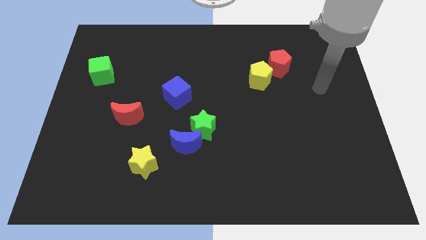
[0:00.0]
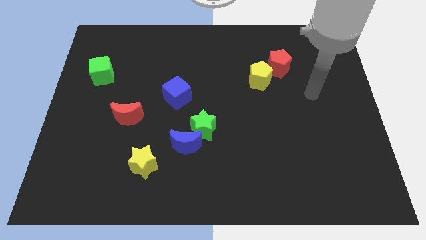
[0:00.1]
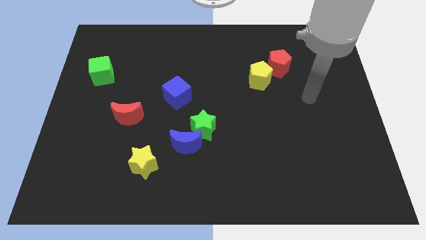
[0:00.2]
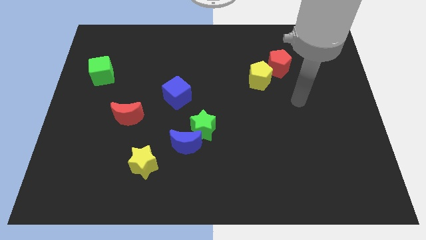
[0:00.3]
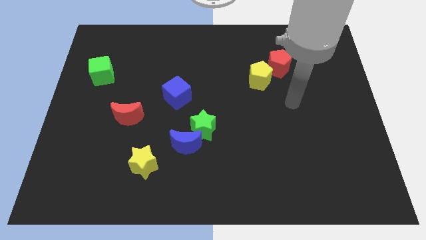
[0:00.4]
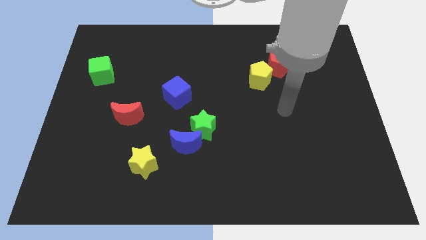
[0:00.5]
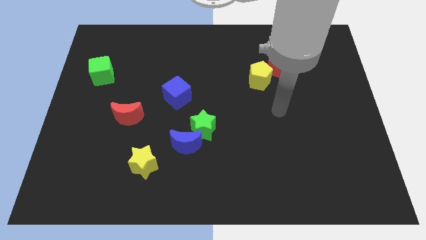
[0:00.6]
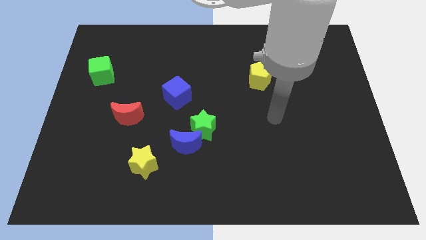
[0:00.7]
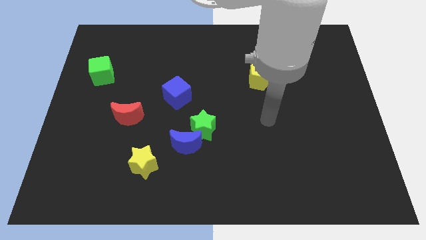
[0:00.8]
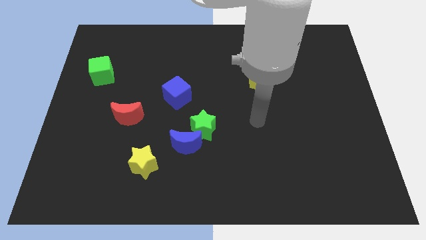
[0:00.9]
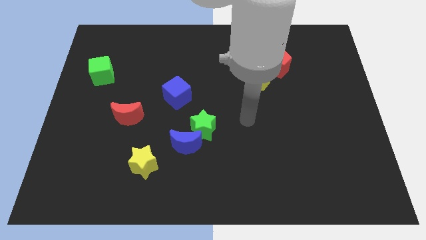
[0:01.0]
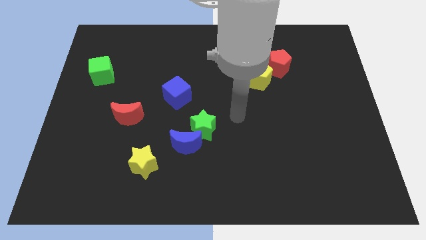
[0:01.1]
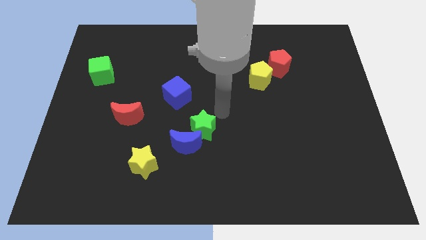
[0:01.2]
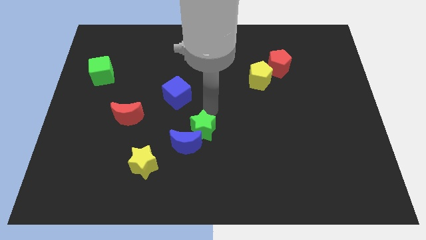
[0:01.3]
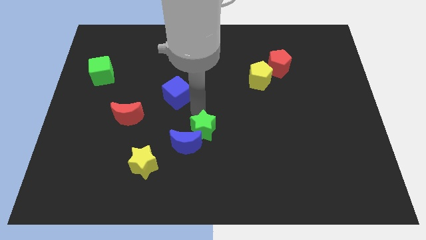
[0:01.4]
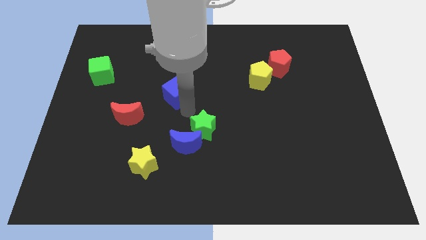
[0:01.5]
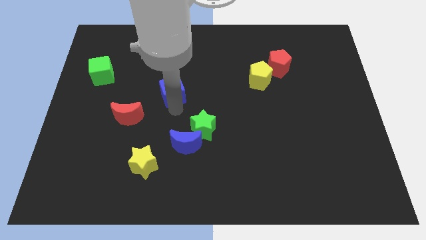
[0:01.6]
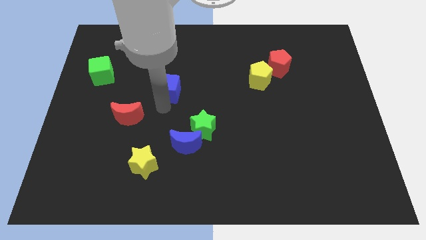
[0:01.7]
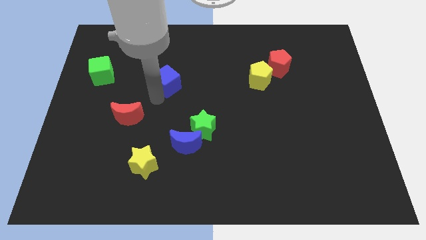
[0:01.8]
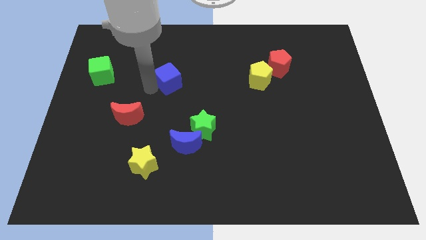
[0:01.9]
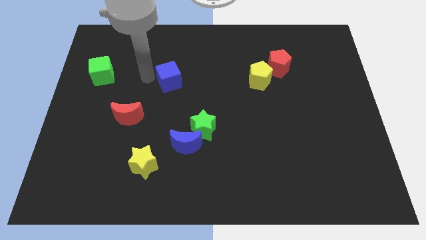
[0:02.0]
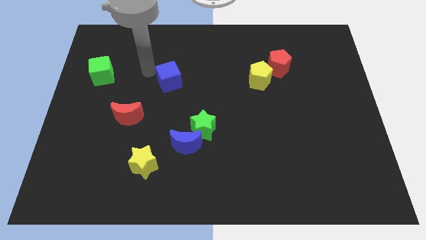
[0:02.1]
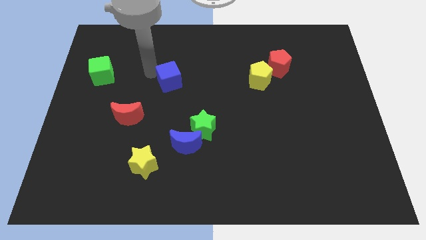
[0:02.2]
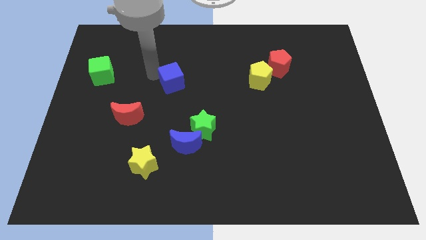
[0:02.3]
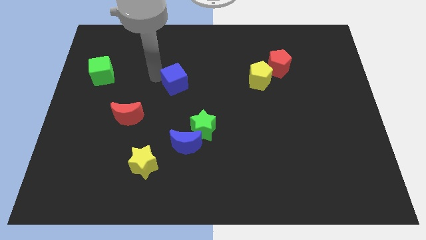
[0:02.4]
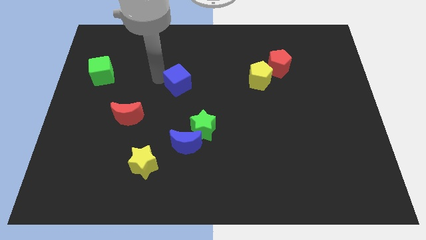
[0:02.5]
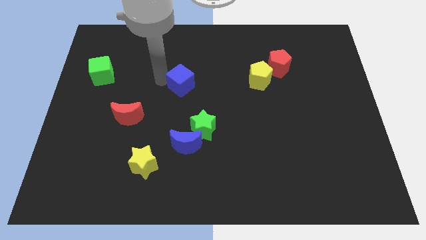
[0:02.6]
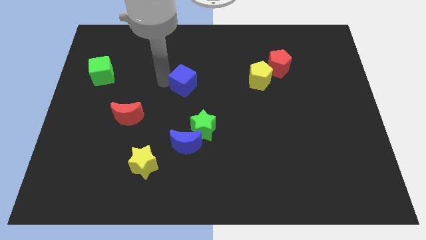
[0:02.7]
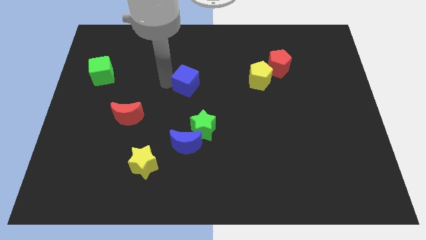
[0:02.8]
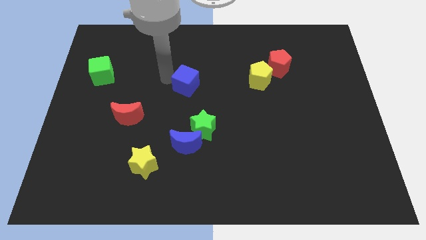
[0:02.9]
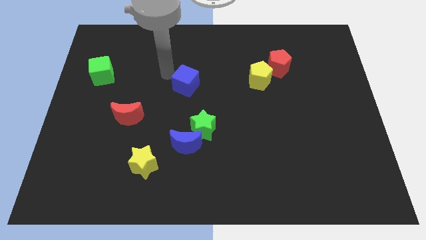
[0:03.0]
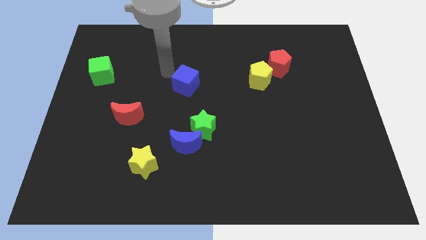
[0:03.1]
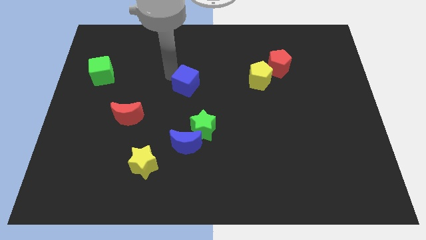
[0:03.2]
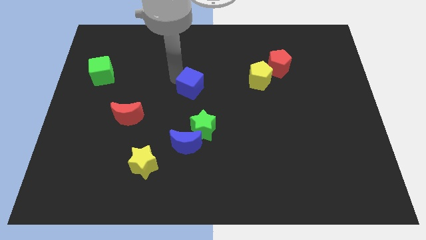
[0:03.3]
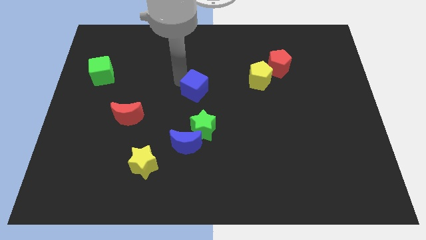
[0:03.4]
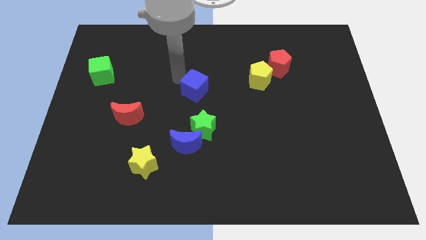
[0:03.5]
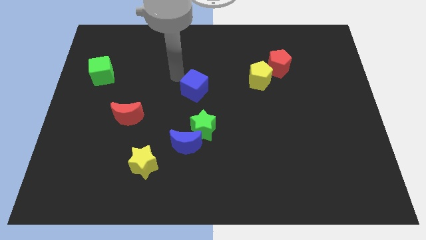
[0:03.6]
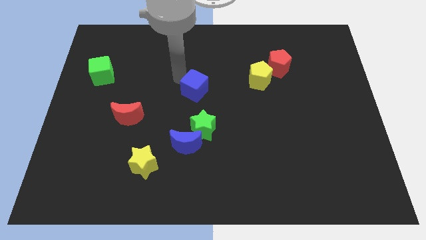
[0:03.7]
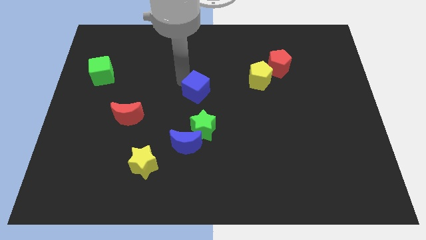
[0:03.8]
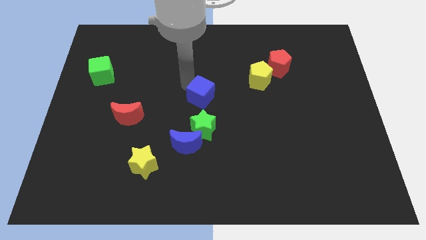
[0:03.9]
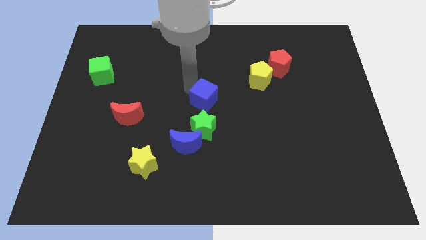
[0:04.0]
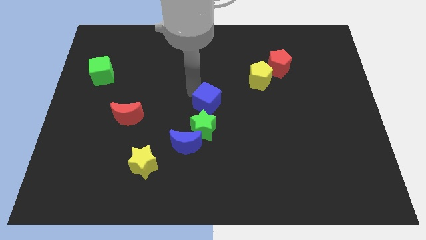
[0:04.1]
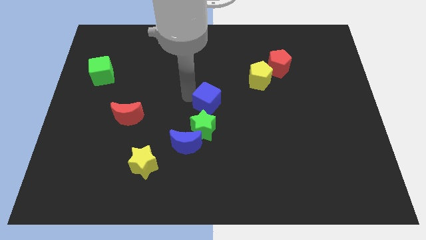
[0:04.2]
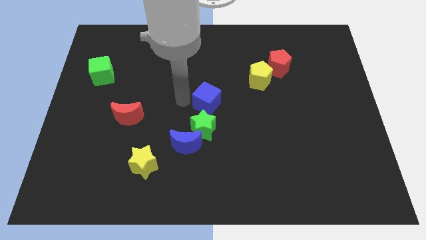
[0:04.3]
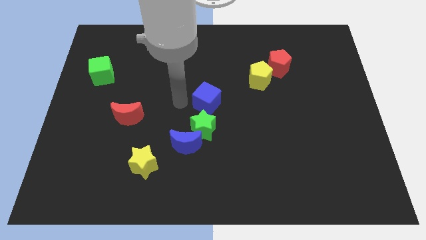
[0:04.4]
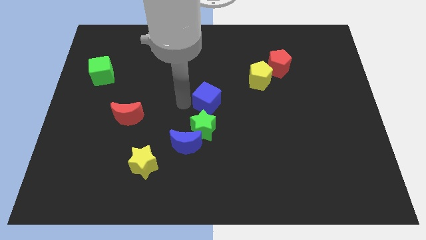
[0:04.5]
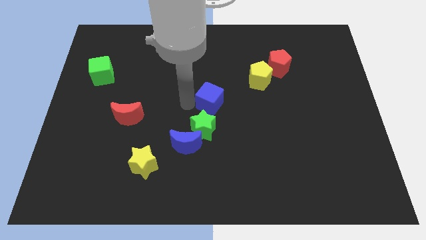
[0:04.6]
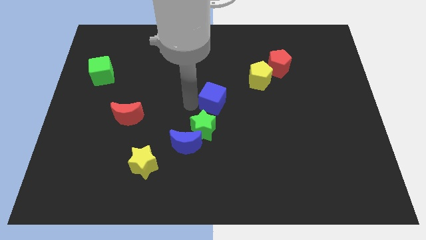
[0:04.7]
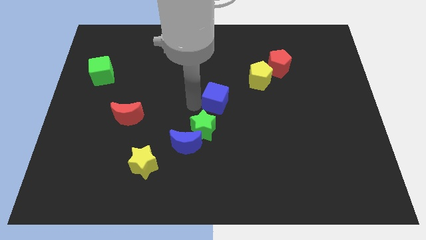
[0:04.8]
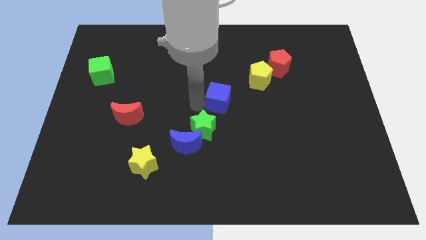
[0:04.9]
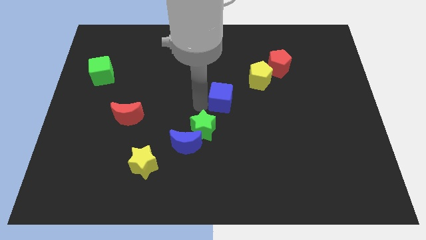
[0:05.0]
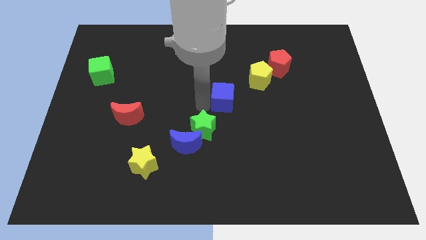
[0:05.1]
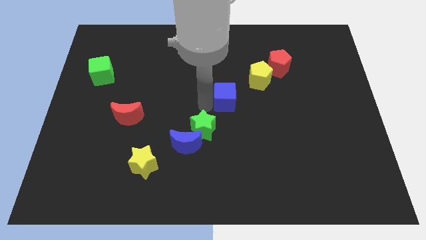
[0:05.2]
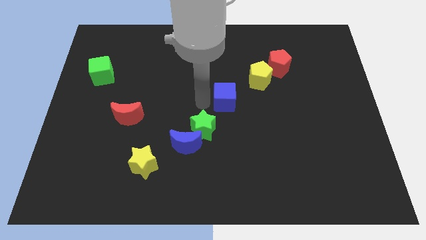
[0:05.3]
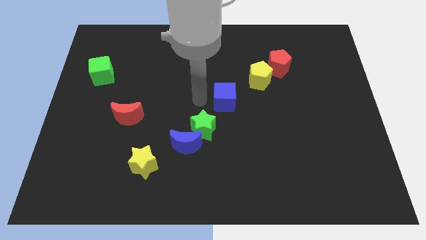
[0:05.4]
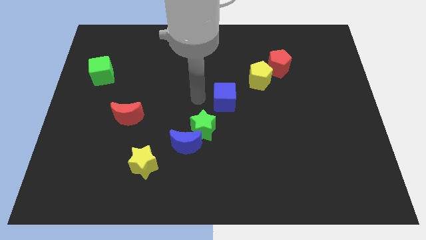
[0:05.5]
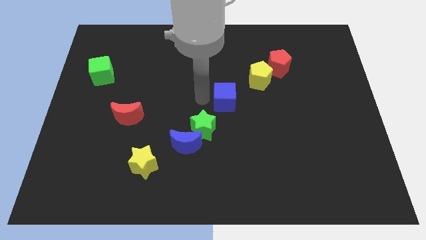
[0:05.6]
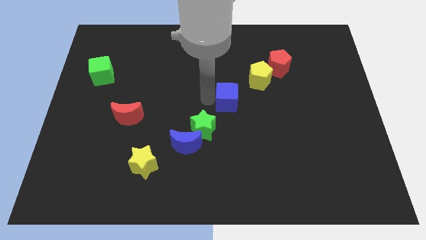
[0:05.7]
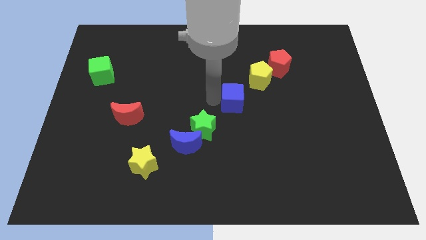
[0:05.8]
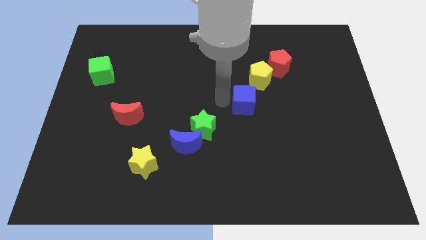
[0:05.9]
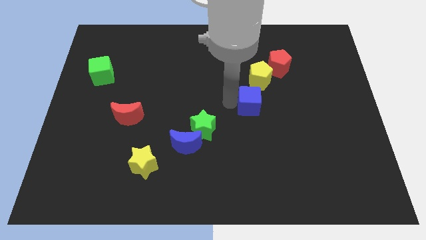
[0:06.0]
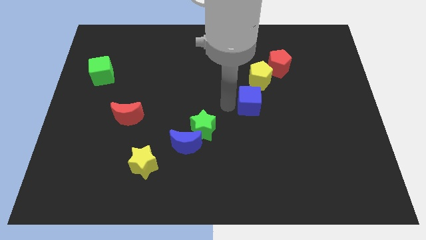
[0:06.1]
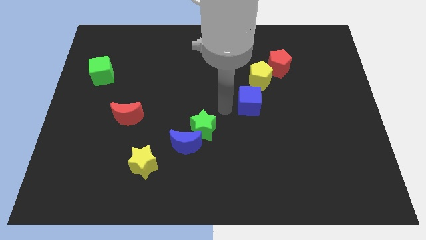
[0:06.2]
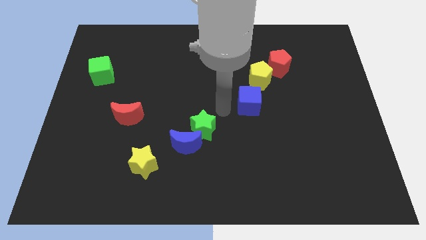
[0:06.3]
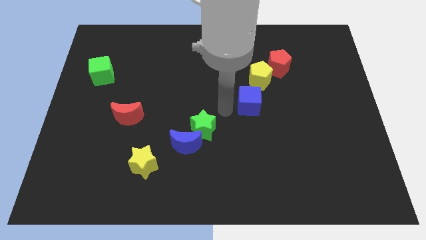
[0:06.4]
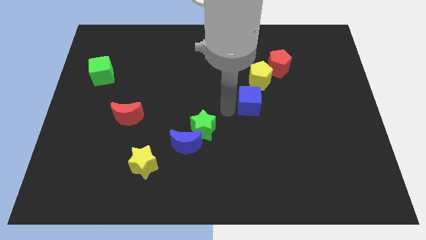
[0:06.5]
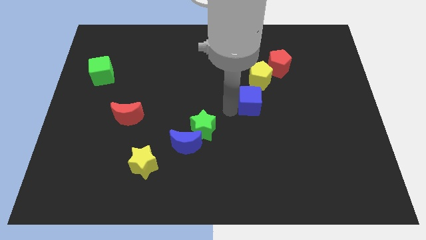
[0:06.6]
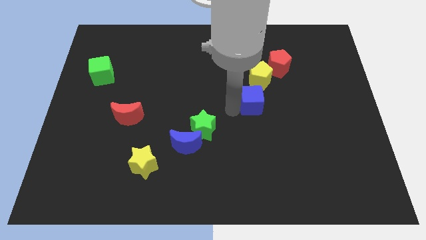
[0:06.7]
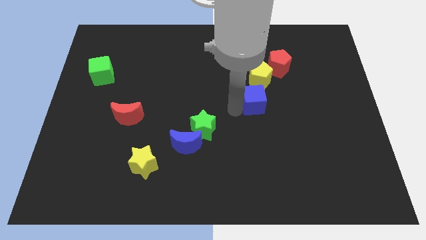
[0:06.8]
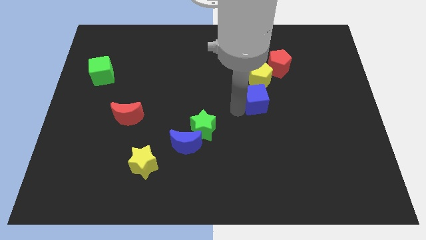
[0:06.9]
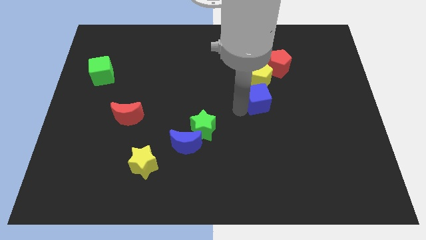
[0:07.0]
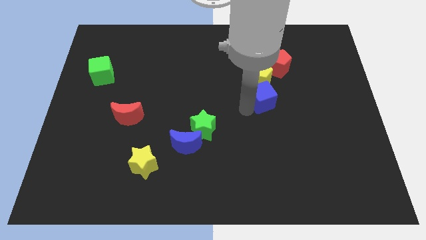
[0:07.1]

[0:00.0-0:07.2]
slide the blue cube right

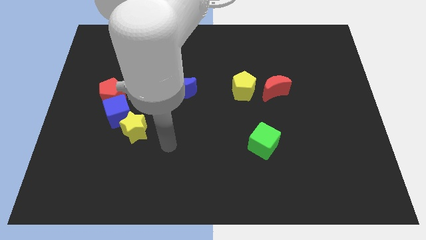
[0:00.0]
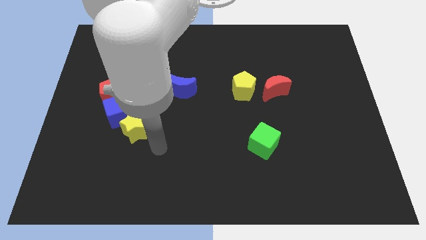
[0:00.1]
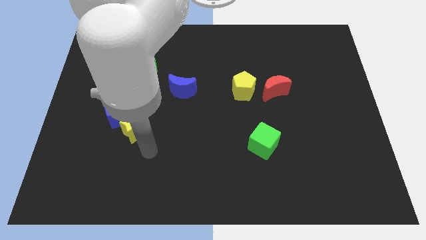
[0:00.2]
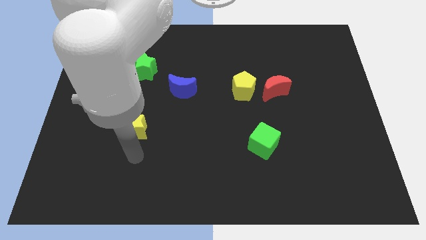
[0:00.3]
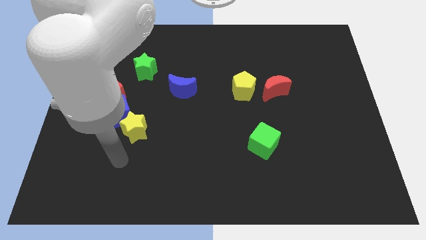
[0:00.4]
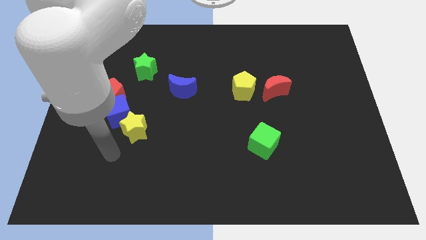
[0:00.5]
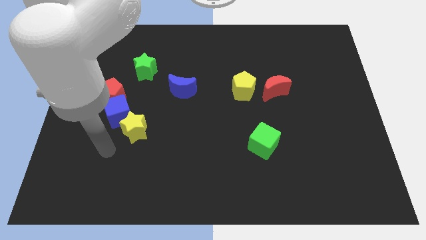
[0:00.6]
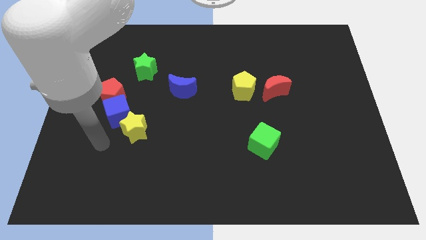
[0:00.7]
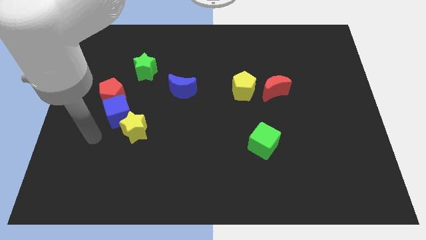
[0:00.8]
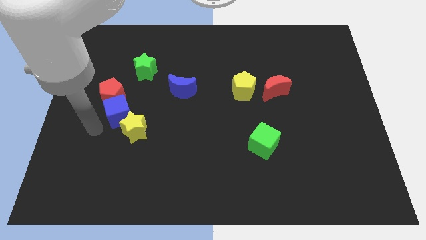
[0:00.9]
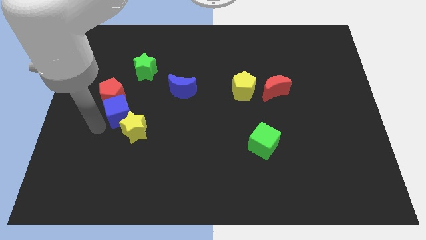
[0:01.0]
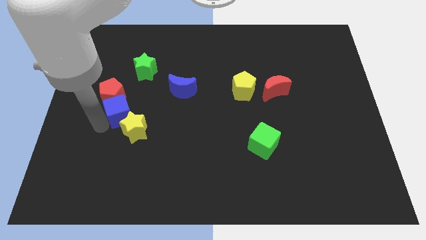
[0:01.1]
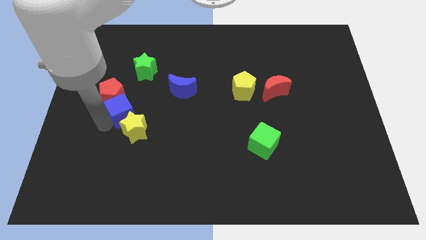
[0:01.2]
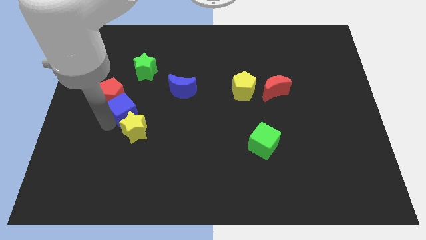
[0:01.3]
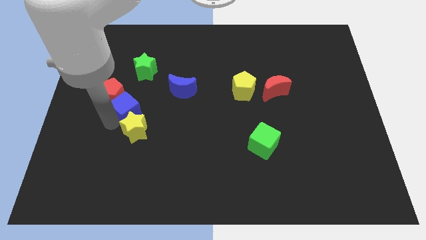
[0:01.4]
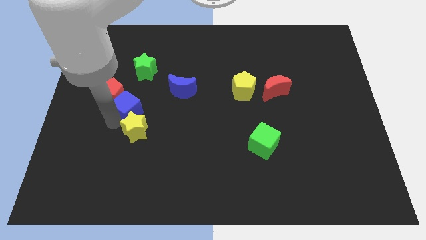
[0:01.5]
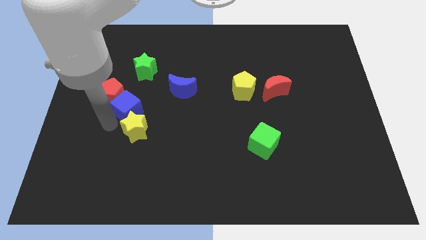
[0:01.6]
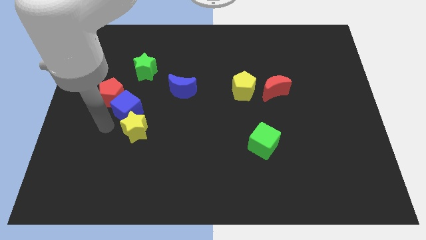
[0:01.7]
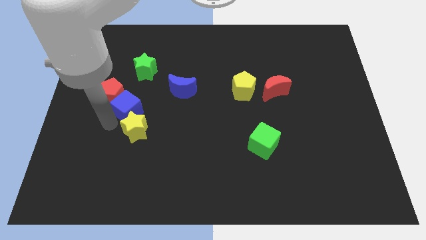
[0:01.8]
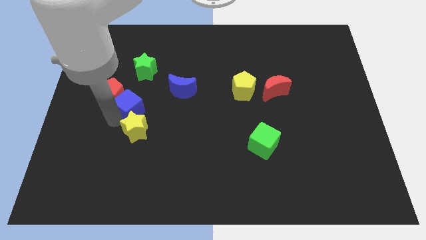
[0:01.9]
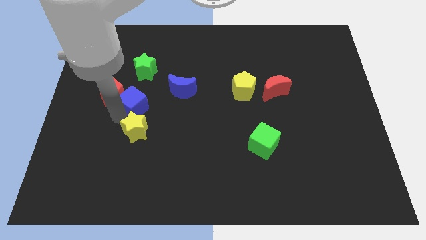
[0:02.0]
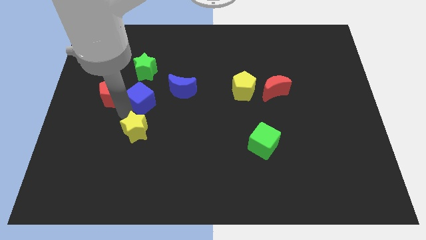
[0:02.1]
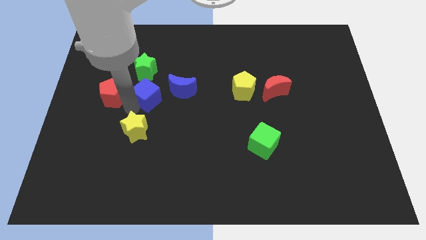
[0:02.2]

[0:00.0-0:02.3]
push the blue cube upwards and then right slightly
